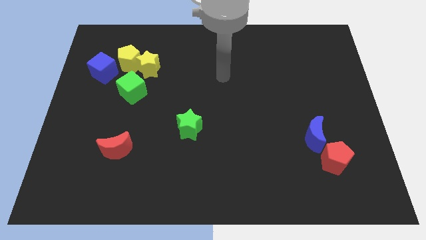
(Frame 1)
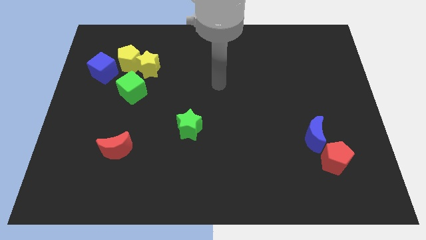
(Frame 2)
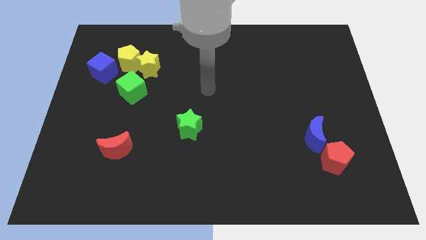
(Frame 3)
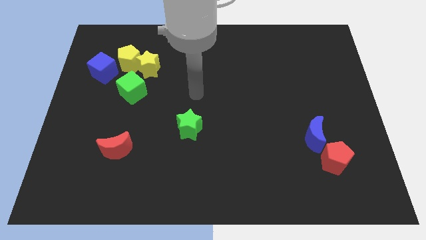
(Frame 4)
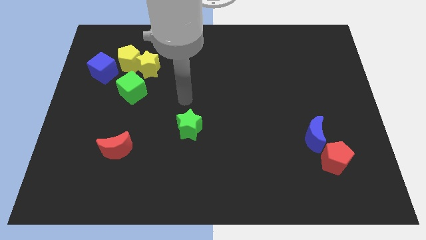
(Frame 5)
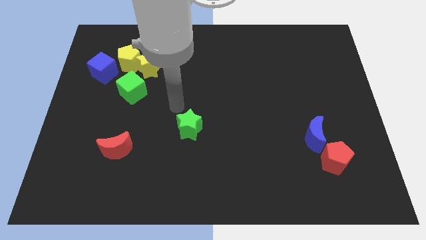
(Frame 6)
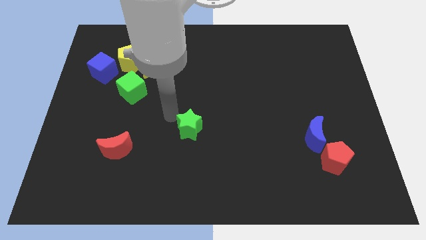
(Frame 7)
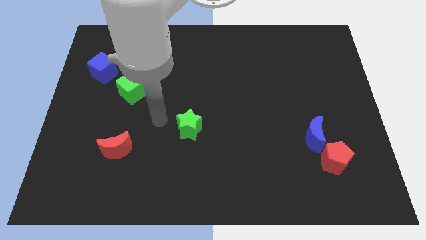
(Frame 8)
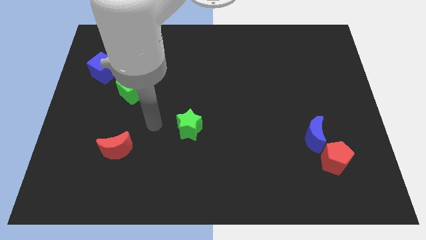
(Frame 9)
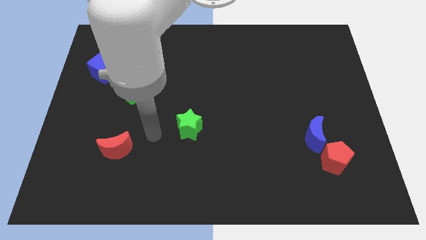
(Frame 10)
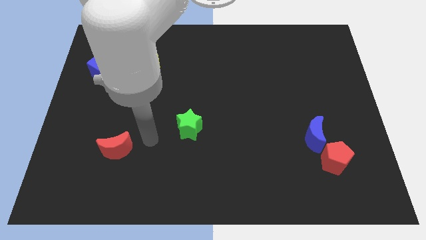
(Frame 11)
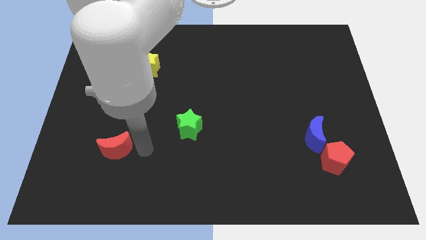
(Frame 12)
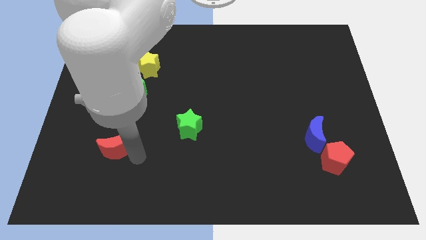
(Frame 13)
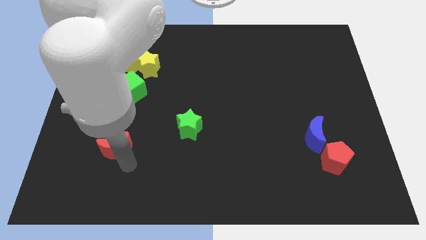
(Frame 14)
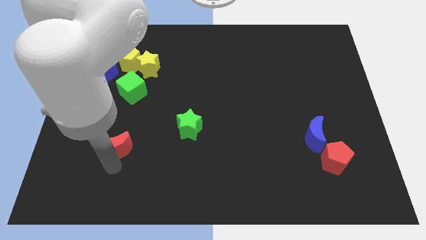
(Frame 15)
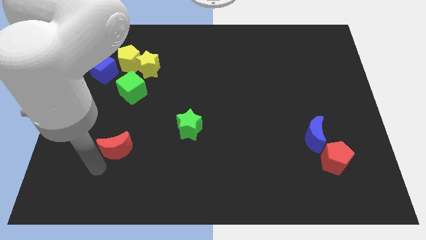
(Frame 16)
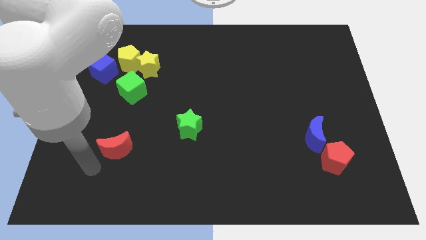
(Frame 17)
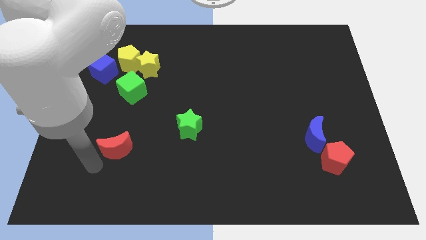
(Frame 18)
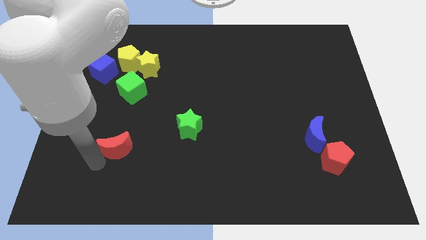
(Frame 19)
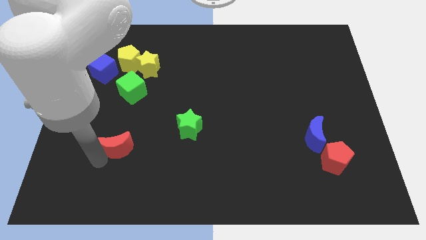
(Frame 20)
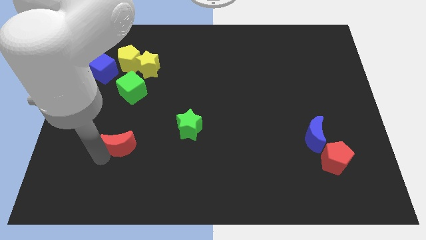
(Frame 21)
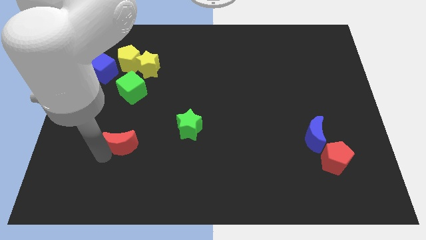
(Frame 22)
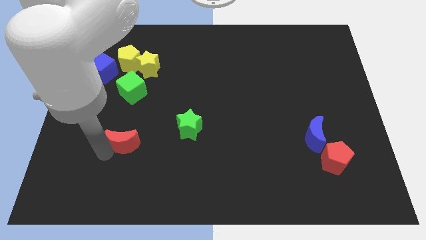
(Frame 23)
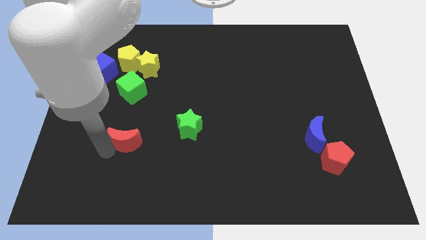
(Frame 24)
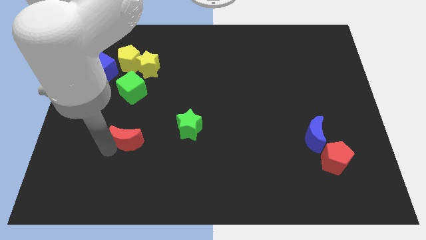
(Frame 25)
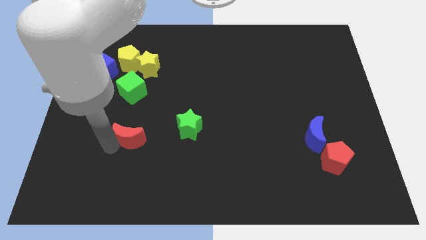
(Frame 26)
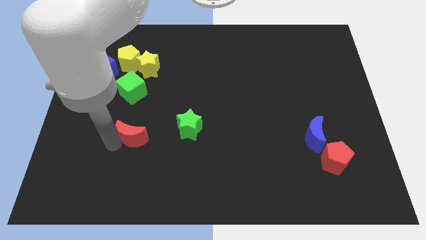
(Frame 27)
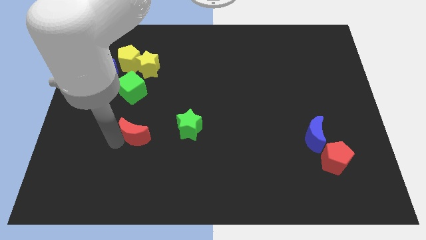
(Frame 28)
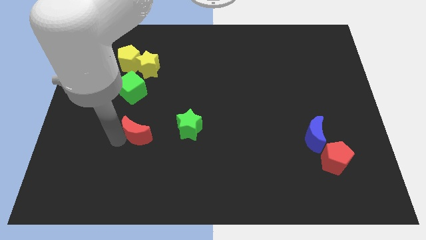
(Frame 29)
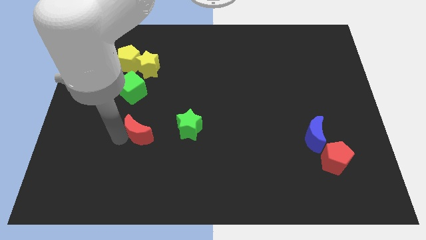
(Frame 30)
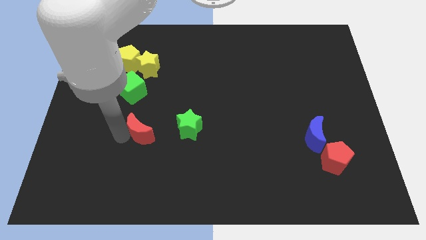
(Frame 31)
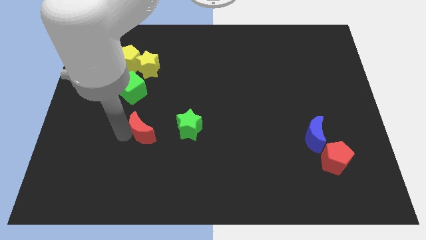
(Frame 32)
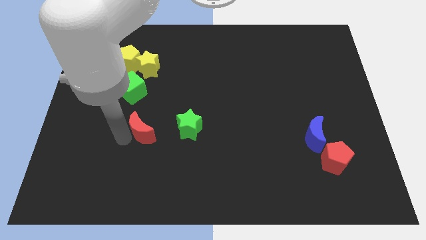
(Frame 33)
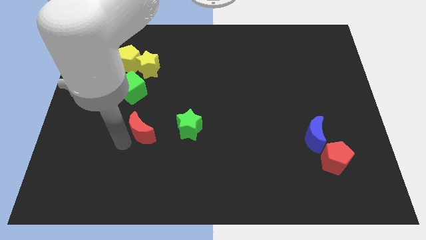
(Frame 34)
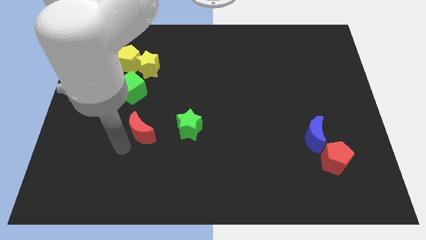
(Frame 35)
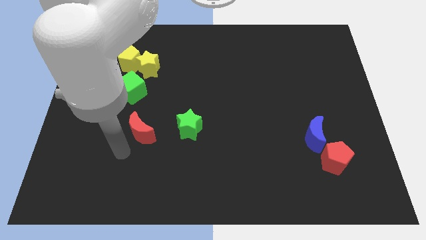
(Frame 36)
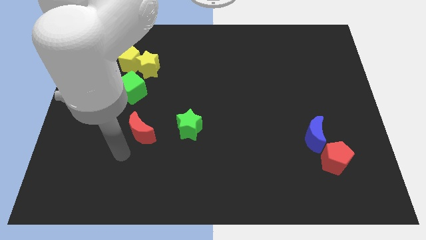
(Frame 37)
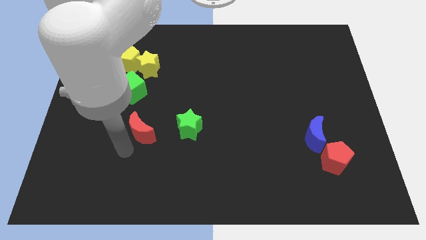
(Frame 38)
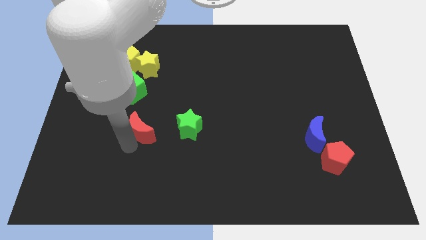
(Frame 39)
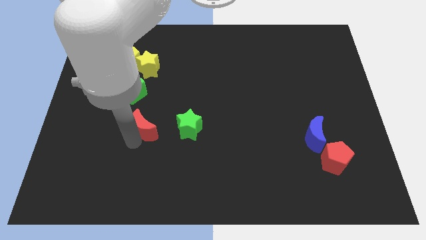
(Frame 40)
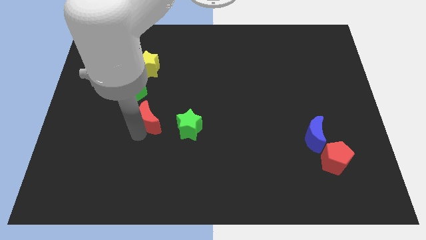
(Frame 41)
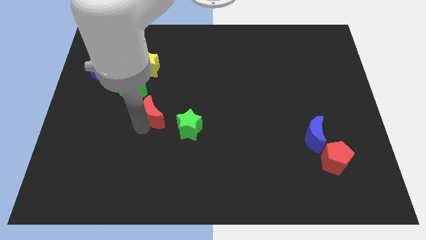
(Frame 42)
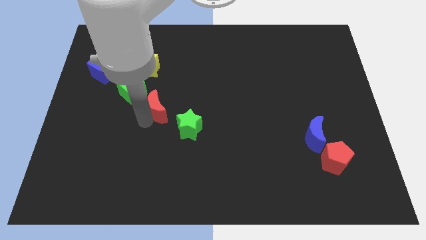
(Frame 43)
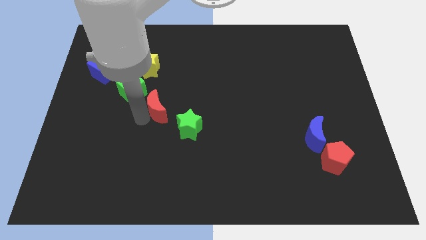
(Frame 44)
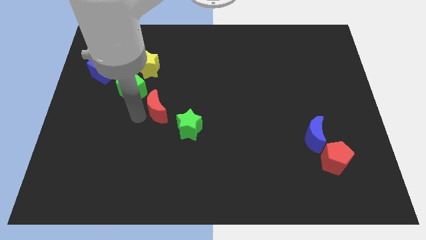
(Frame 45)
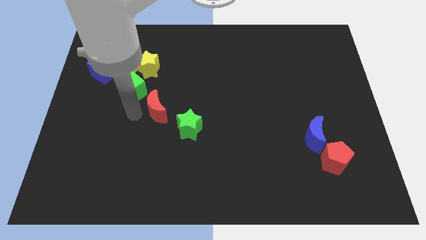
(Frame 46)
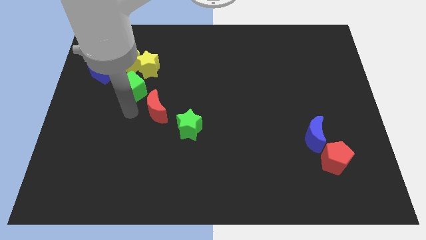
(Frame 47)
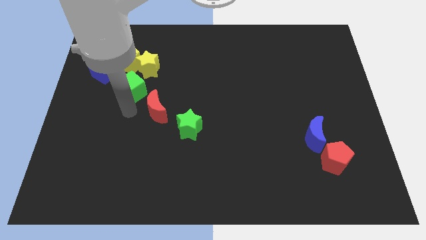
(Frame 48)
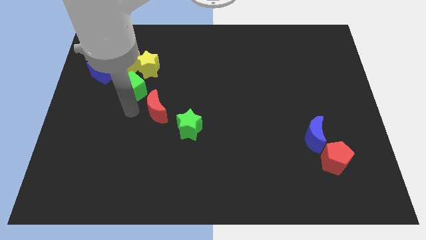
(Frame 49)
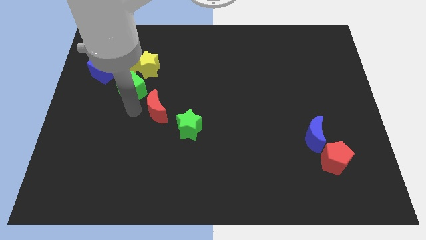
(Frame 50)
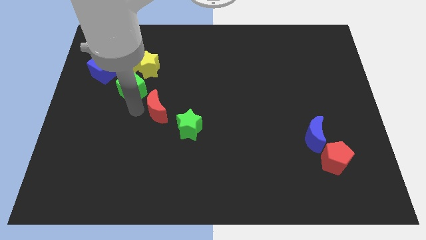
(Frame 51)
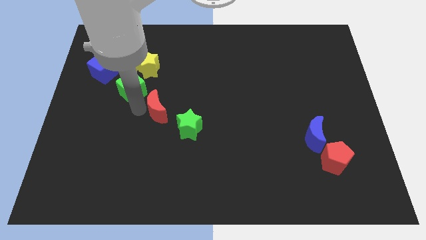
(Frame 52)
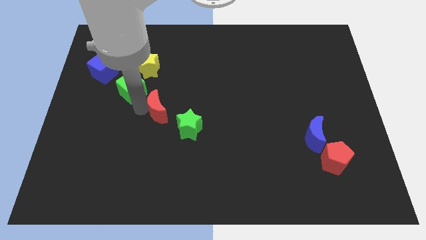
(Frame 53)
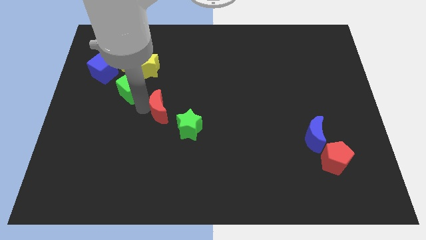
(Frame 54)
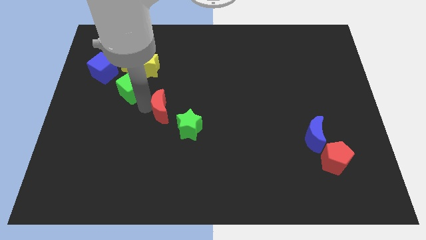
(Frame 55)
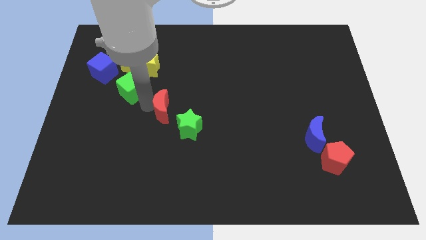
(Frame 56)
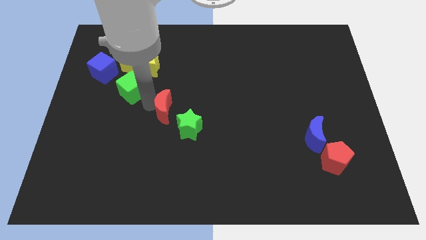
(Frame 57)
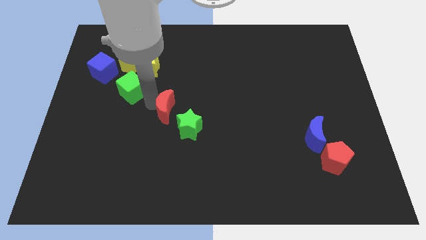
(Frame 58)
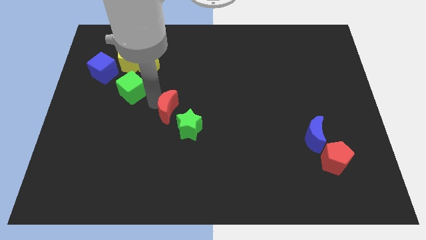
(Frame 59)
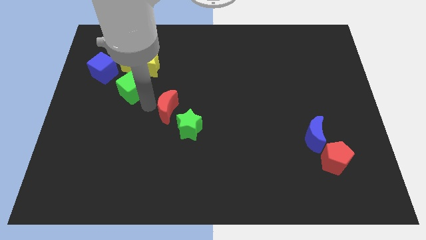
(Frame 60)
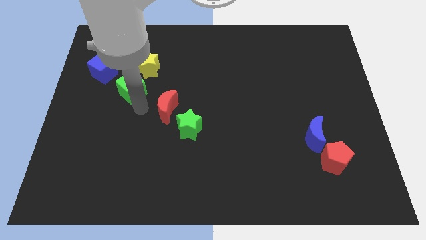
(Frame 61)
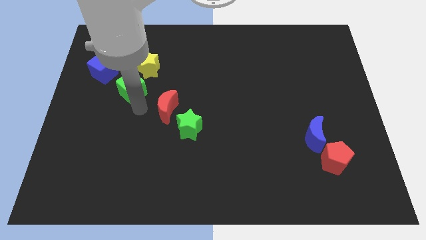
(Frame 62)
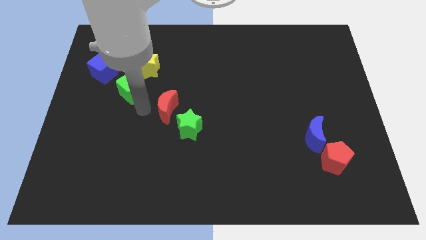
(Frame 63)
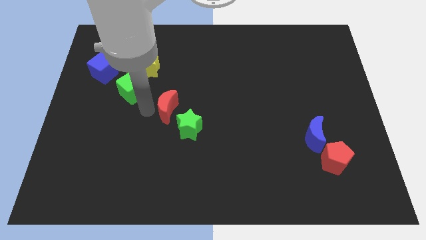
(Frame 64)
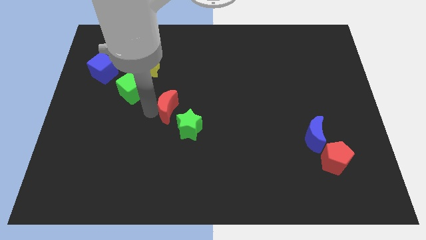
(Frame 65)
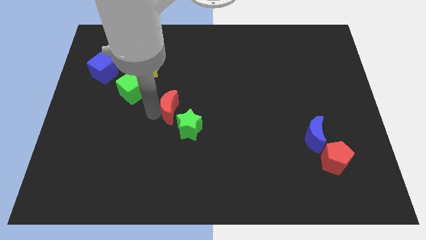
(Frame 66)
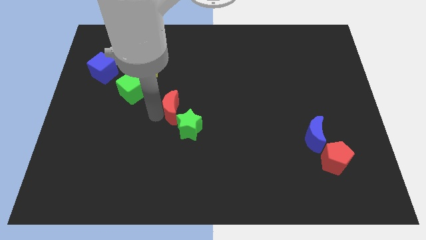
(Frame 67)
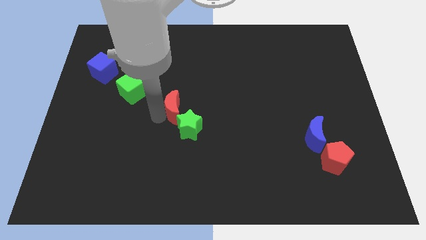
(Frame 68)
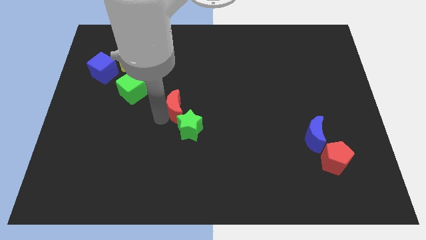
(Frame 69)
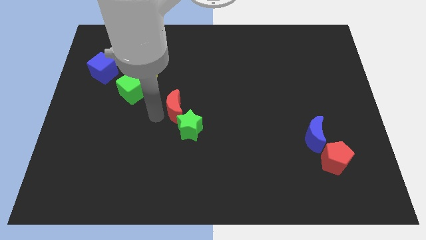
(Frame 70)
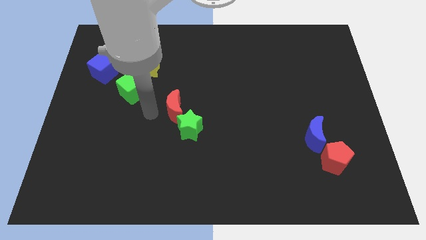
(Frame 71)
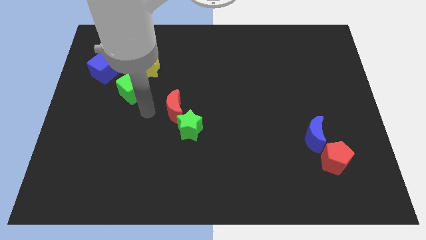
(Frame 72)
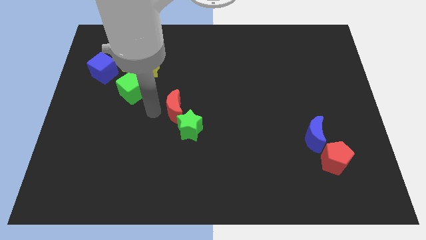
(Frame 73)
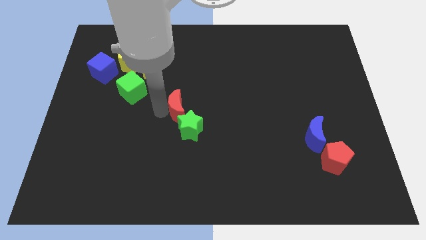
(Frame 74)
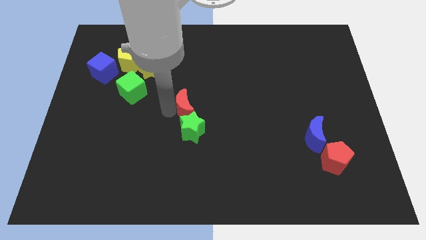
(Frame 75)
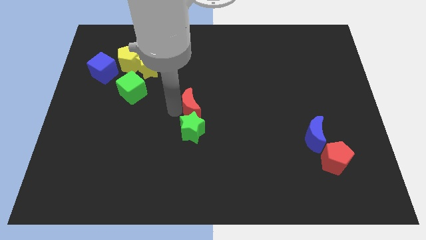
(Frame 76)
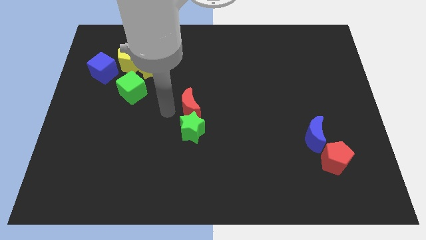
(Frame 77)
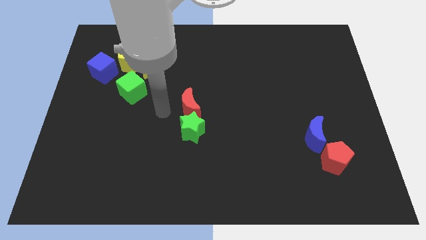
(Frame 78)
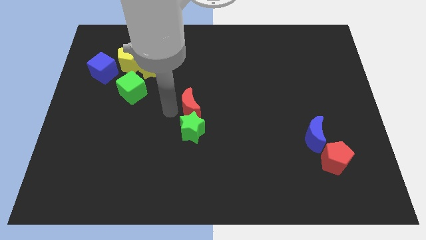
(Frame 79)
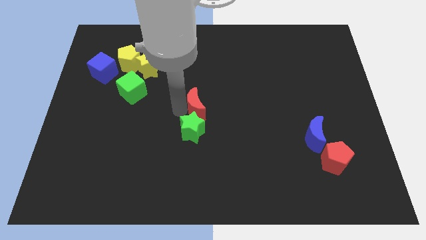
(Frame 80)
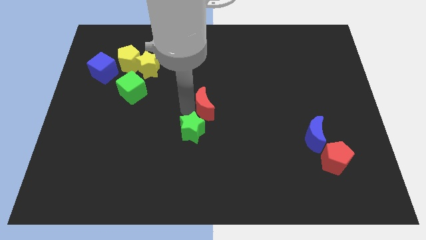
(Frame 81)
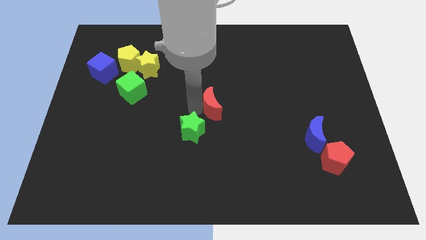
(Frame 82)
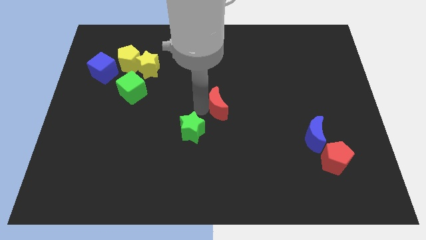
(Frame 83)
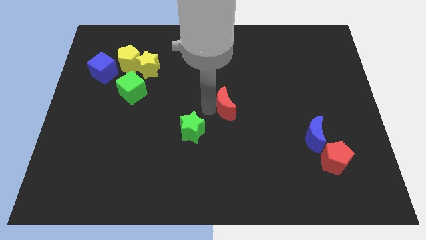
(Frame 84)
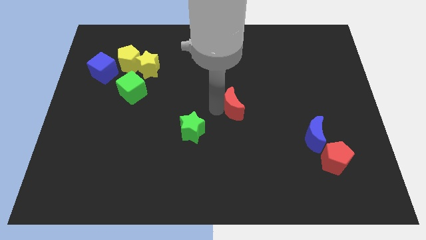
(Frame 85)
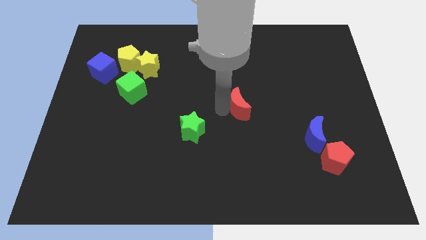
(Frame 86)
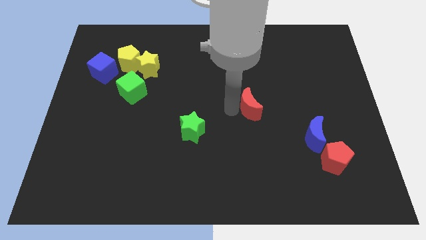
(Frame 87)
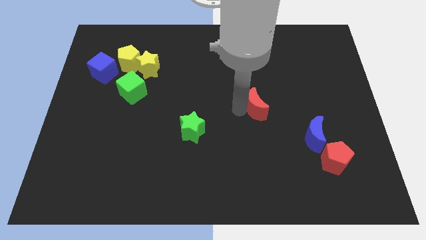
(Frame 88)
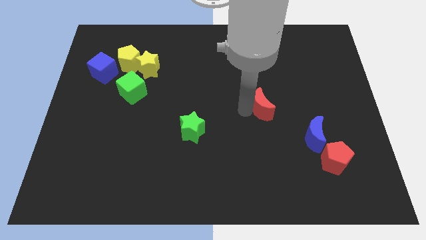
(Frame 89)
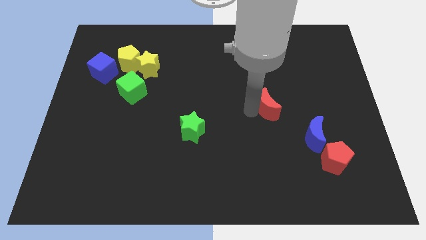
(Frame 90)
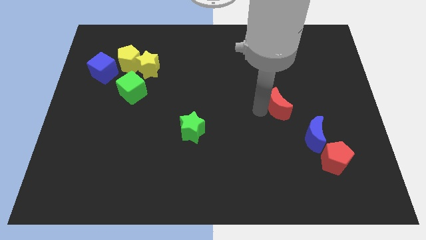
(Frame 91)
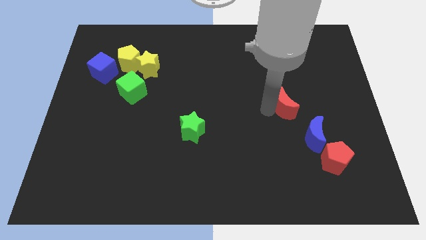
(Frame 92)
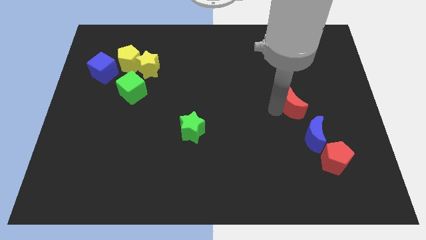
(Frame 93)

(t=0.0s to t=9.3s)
put the red moon above the blue moon
